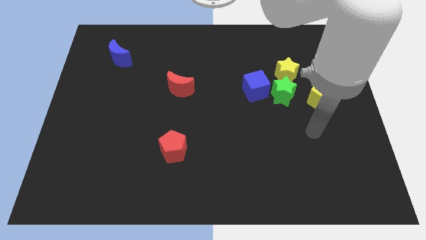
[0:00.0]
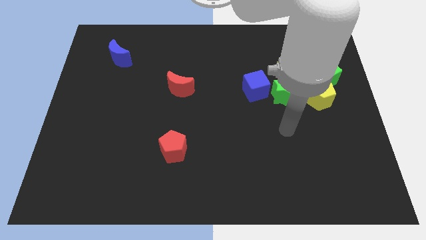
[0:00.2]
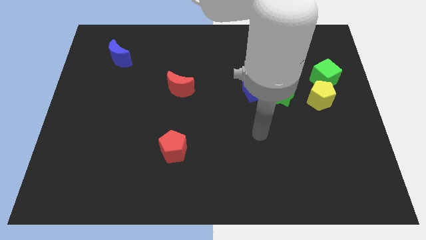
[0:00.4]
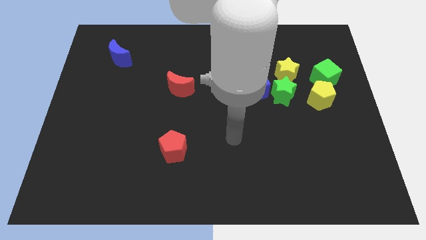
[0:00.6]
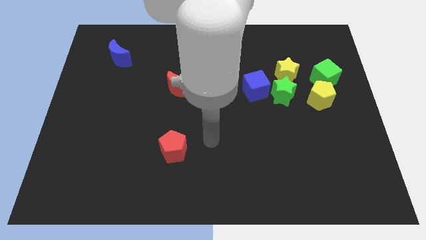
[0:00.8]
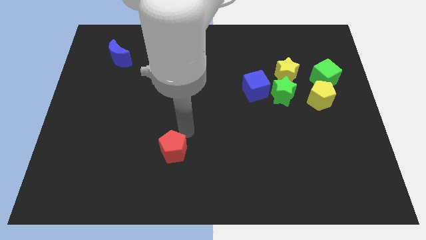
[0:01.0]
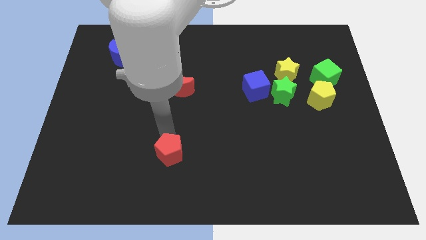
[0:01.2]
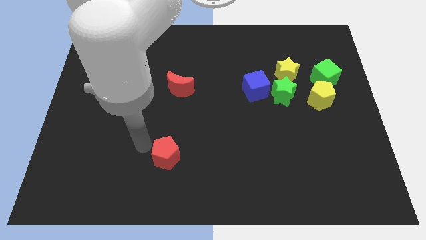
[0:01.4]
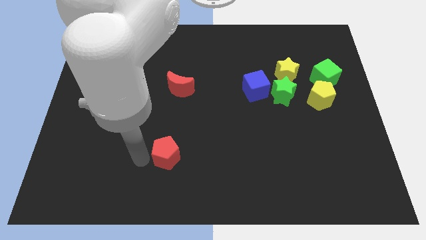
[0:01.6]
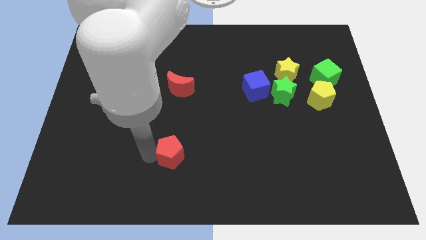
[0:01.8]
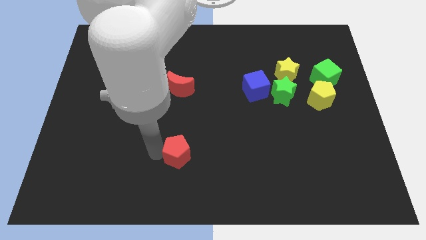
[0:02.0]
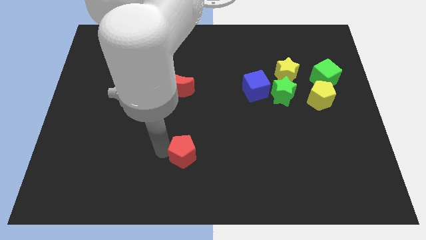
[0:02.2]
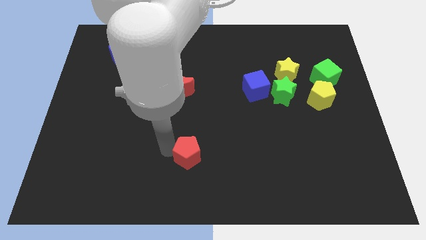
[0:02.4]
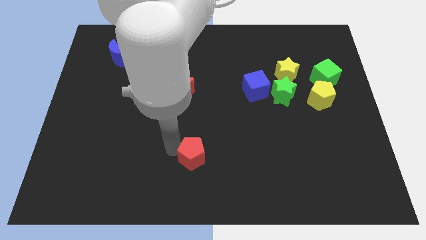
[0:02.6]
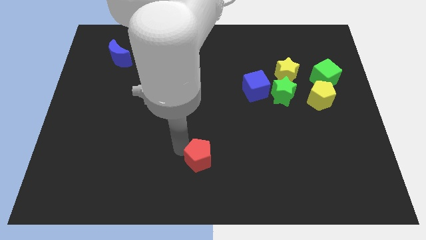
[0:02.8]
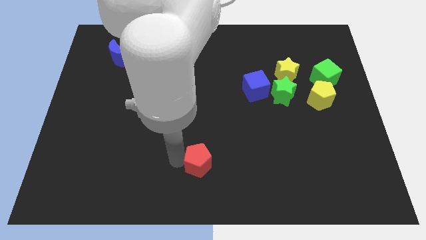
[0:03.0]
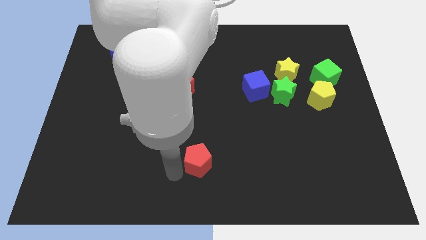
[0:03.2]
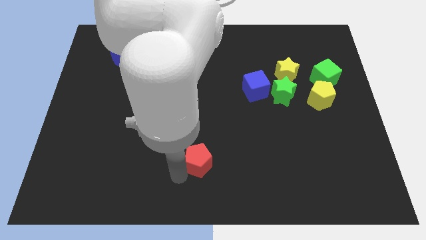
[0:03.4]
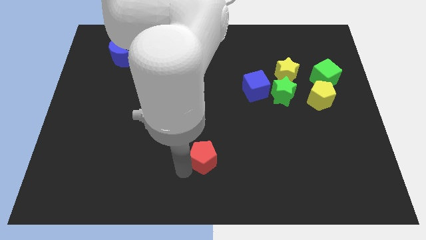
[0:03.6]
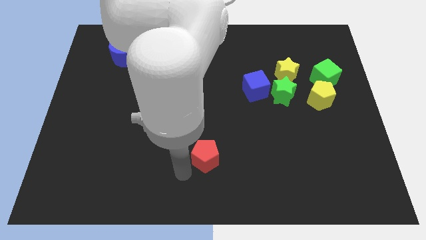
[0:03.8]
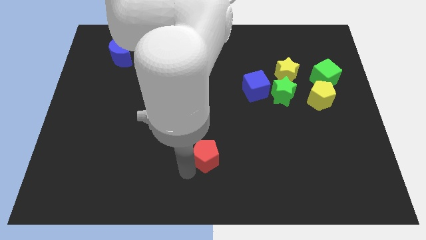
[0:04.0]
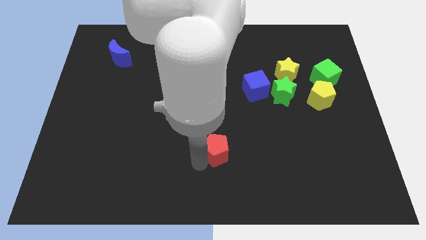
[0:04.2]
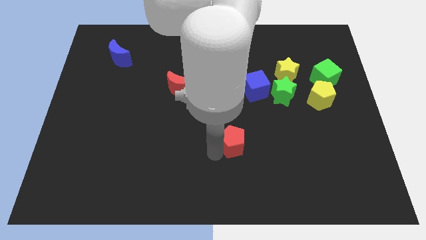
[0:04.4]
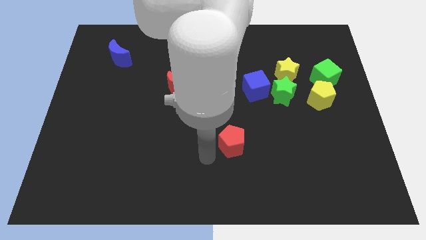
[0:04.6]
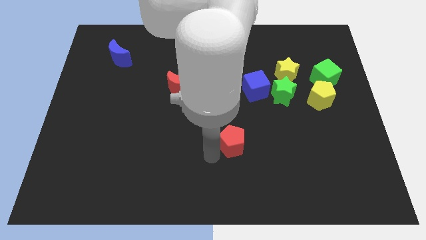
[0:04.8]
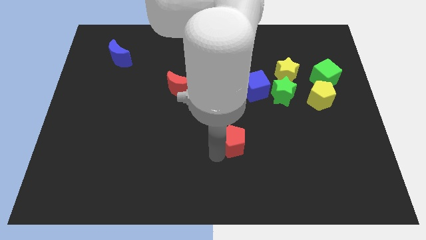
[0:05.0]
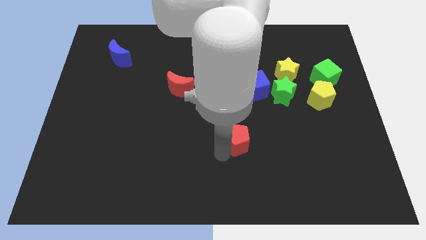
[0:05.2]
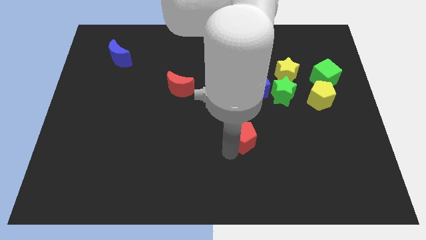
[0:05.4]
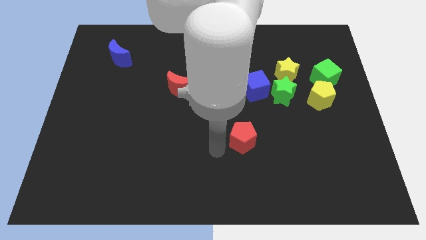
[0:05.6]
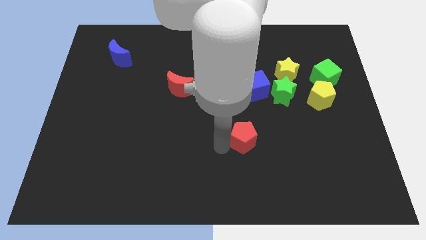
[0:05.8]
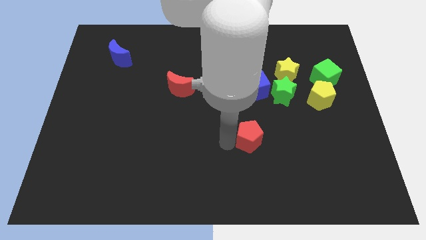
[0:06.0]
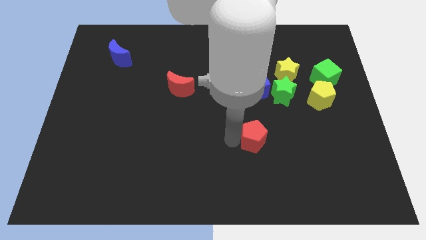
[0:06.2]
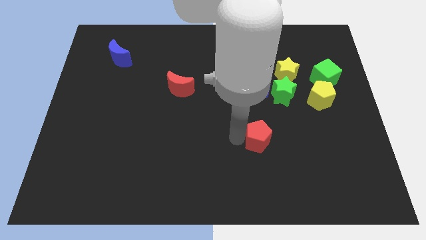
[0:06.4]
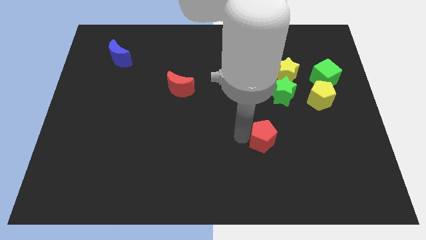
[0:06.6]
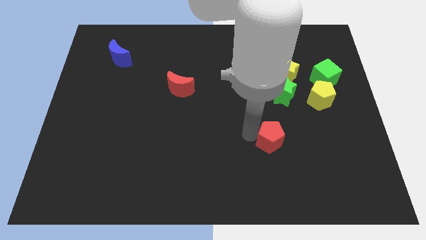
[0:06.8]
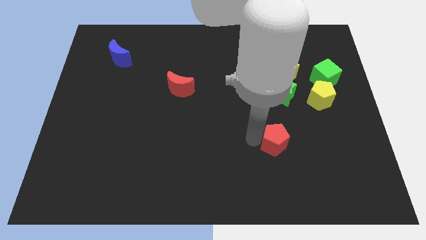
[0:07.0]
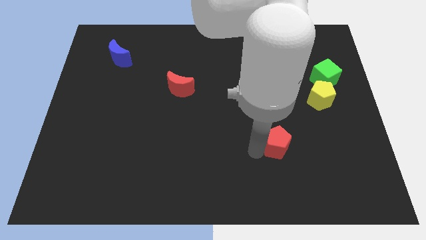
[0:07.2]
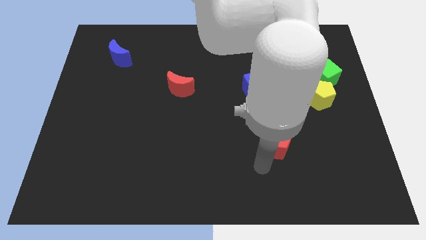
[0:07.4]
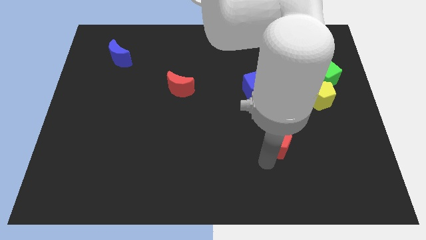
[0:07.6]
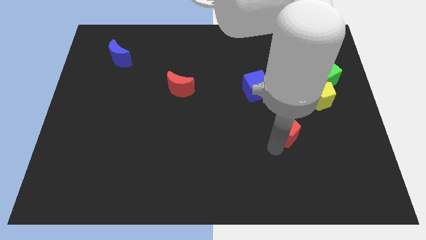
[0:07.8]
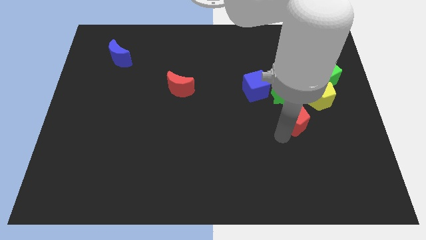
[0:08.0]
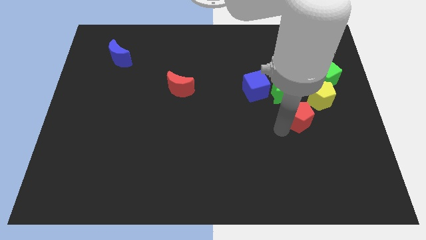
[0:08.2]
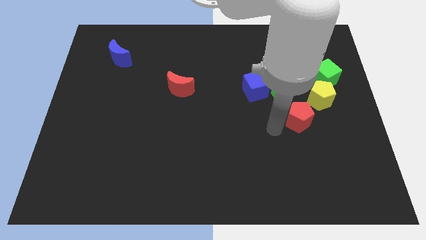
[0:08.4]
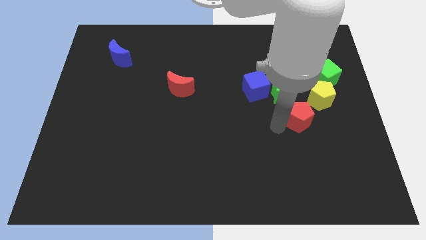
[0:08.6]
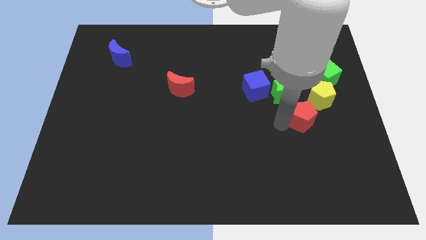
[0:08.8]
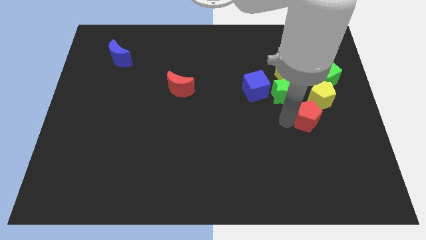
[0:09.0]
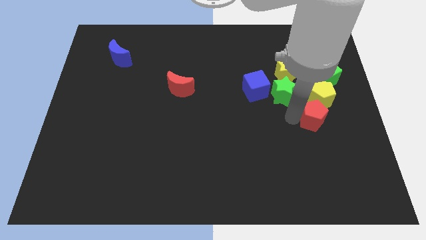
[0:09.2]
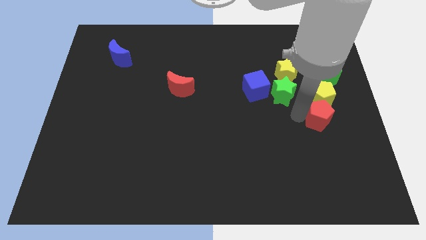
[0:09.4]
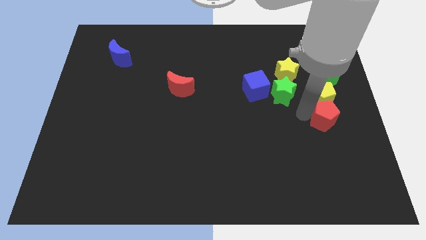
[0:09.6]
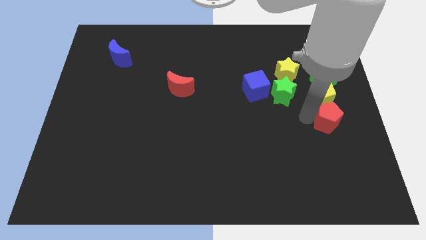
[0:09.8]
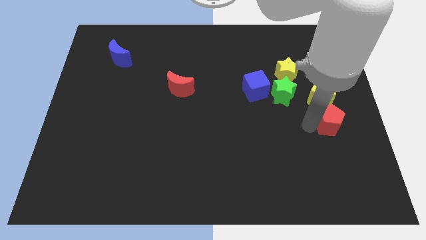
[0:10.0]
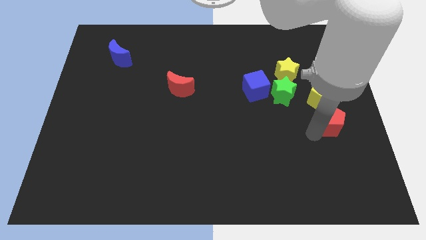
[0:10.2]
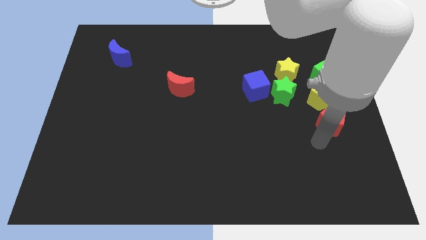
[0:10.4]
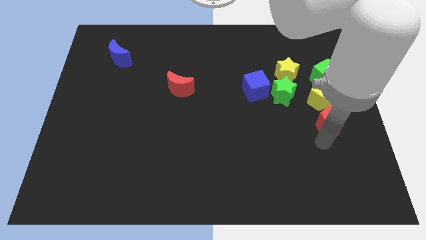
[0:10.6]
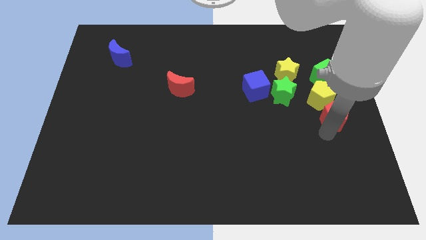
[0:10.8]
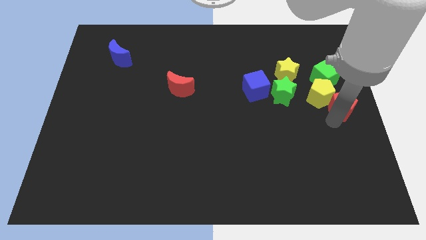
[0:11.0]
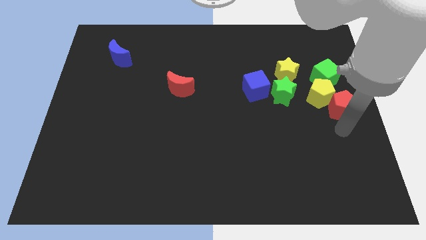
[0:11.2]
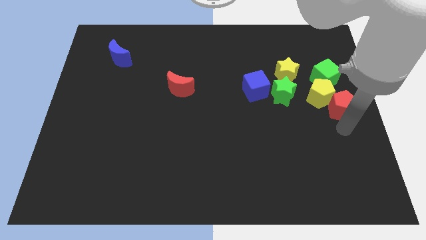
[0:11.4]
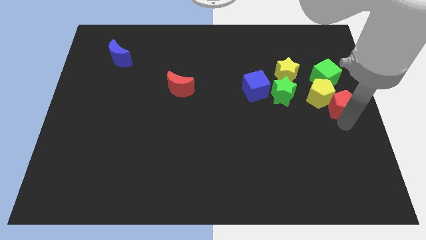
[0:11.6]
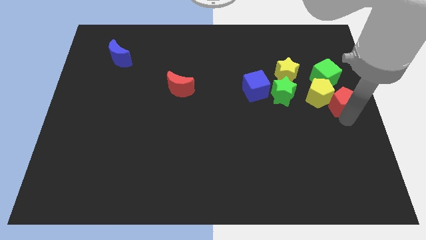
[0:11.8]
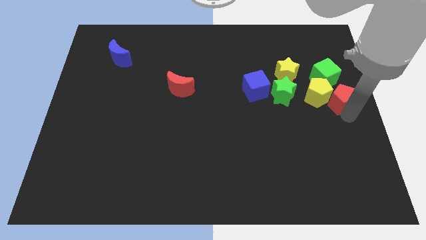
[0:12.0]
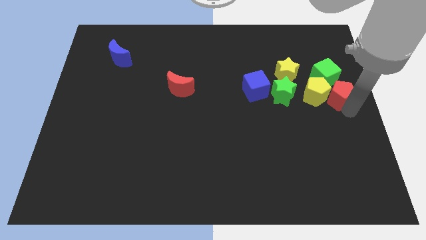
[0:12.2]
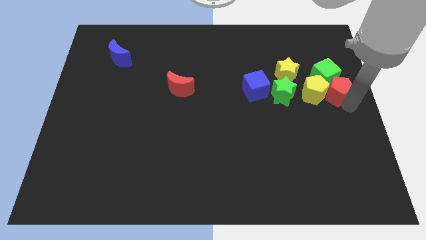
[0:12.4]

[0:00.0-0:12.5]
put the red pentagon close to the green cube

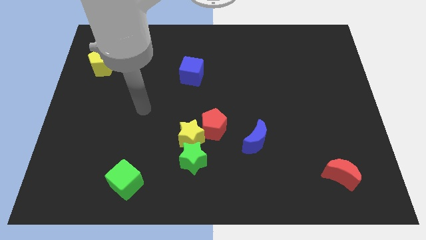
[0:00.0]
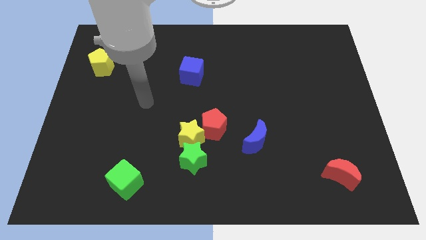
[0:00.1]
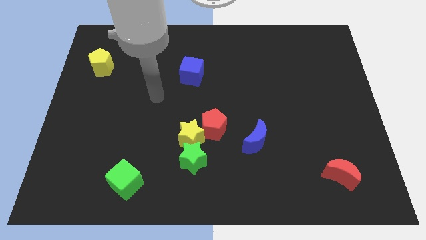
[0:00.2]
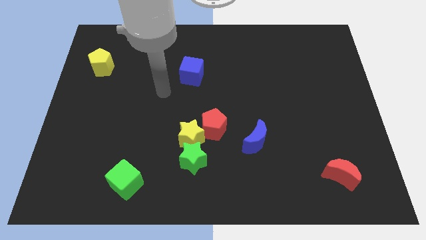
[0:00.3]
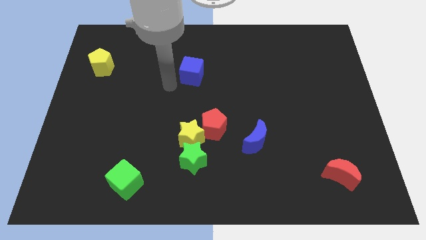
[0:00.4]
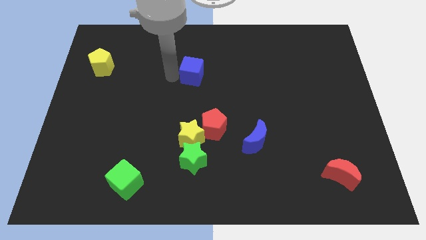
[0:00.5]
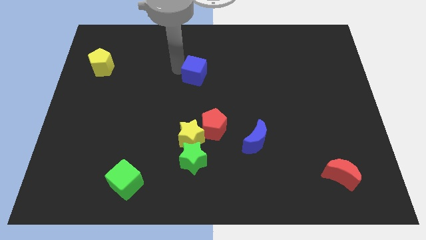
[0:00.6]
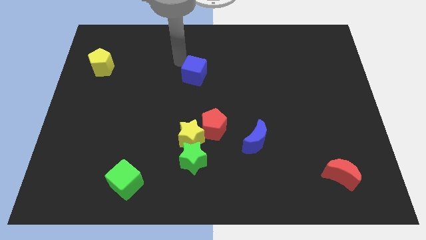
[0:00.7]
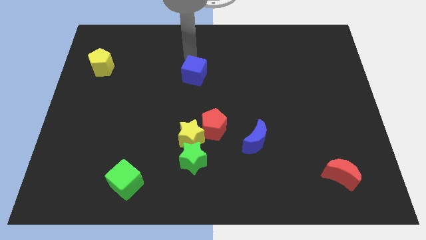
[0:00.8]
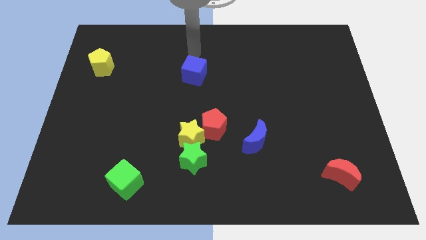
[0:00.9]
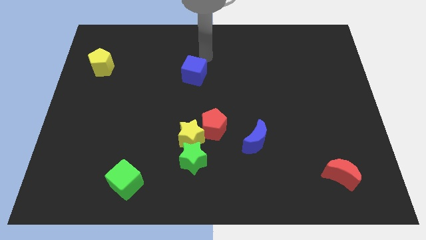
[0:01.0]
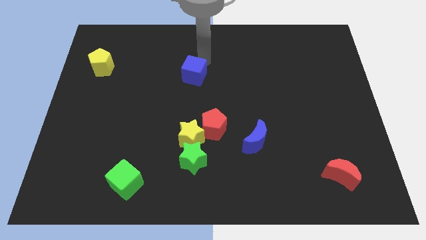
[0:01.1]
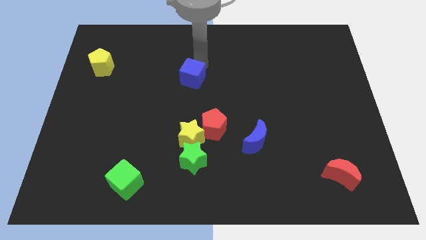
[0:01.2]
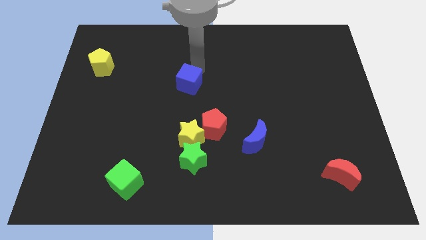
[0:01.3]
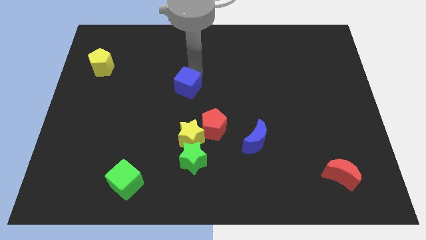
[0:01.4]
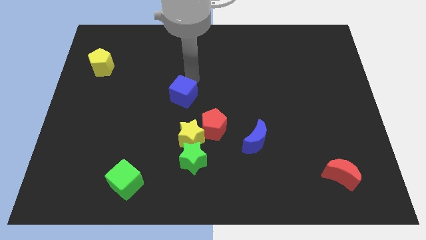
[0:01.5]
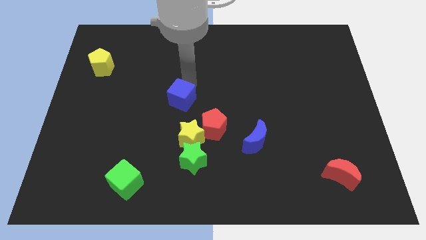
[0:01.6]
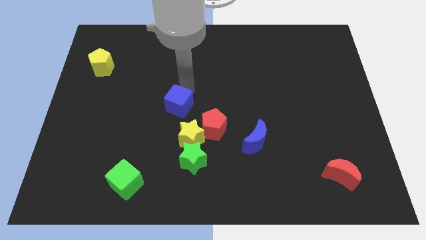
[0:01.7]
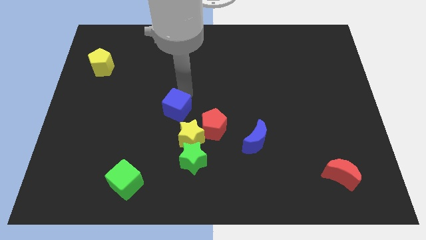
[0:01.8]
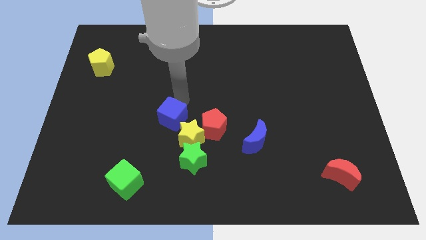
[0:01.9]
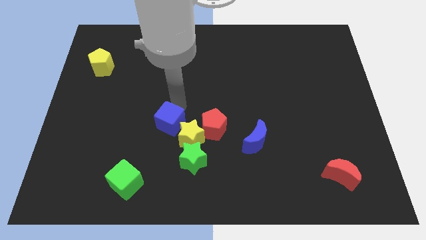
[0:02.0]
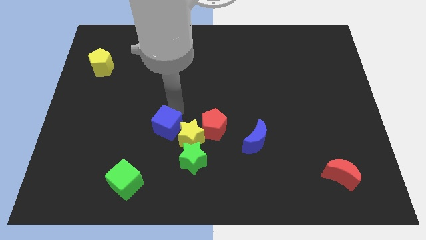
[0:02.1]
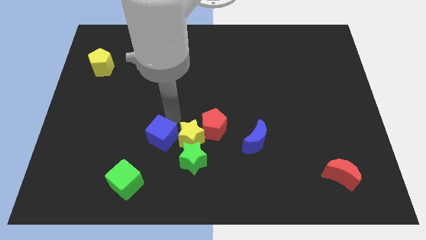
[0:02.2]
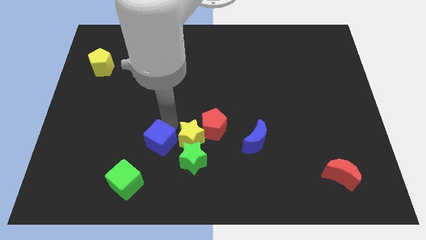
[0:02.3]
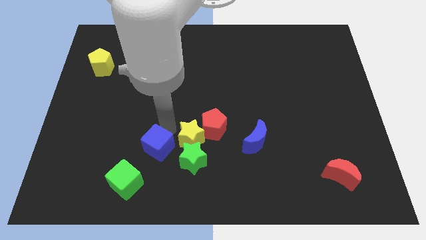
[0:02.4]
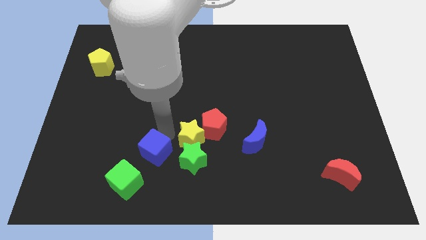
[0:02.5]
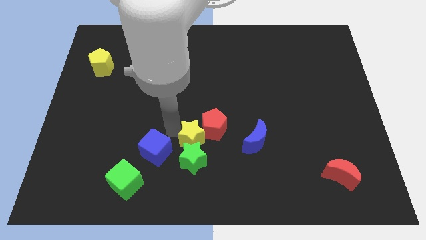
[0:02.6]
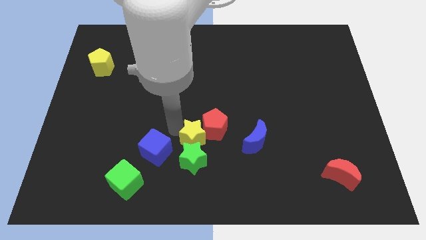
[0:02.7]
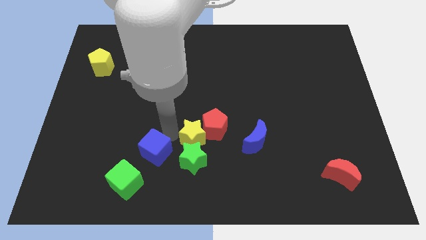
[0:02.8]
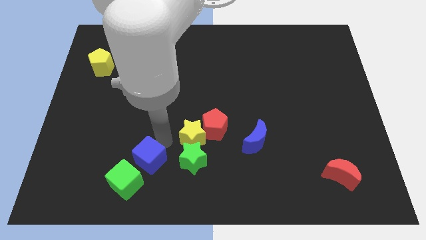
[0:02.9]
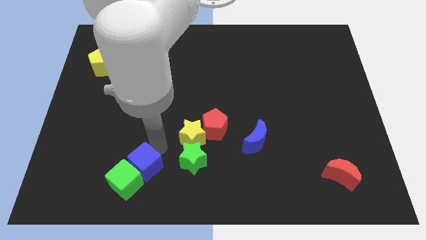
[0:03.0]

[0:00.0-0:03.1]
slide the blue cube next to the green cube
